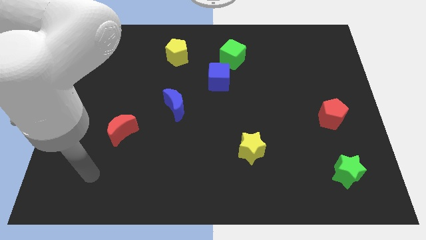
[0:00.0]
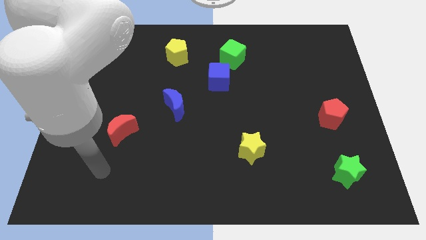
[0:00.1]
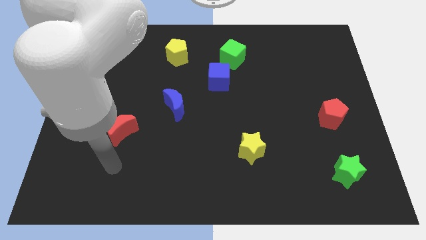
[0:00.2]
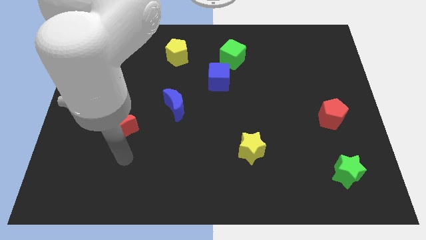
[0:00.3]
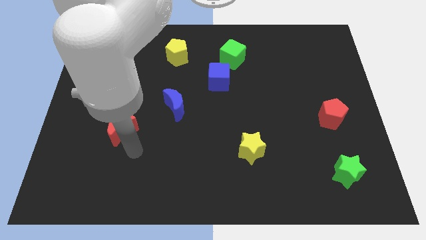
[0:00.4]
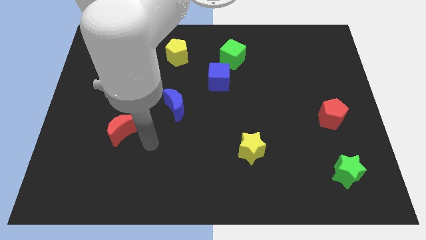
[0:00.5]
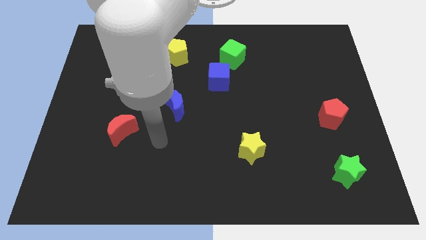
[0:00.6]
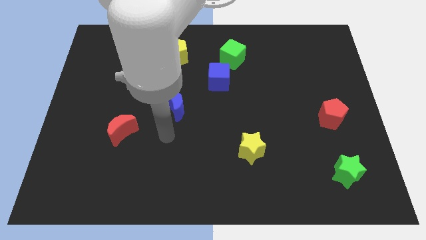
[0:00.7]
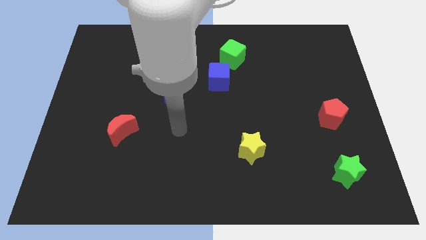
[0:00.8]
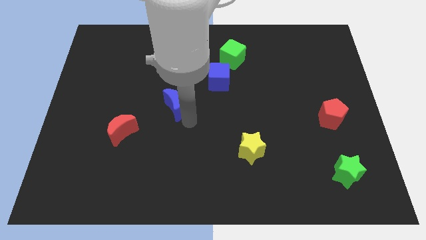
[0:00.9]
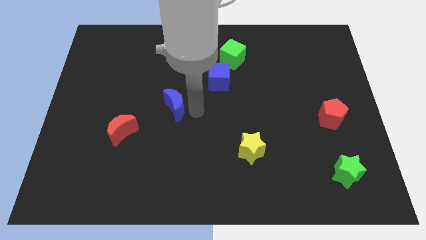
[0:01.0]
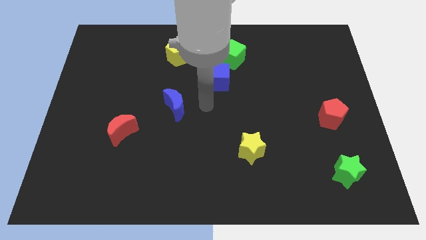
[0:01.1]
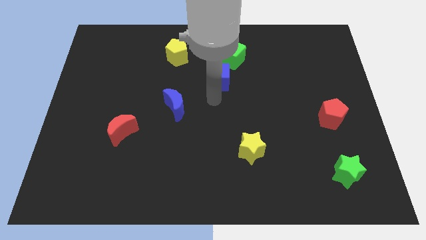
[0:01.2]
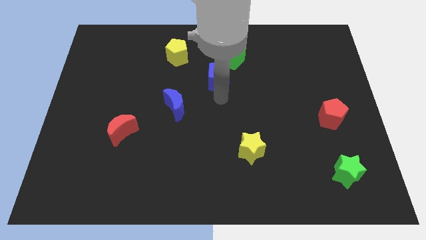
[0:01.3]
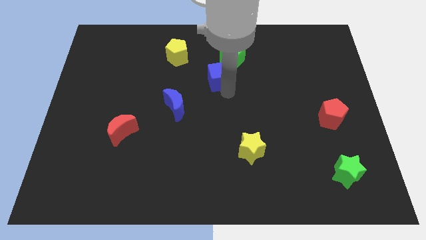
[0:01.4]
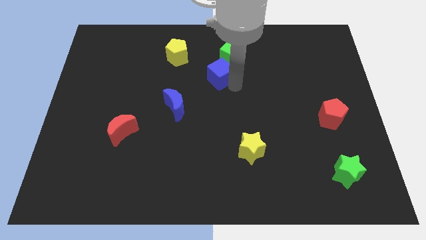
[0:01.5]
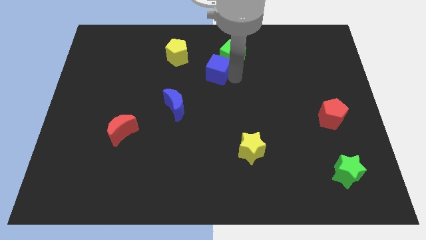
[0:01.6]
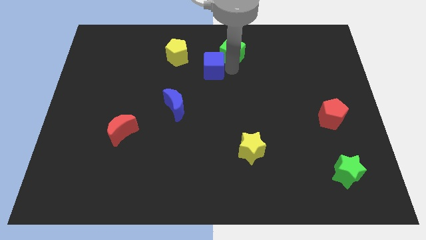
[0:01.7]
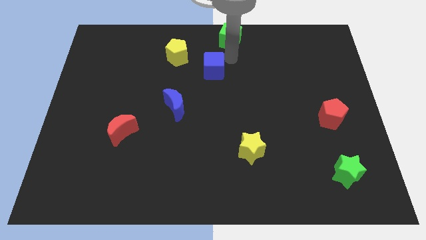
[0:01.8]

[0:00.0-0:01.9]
move the blue cube away from the green cube

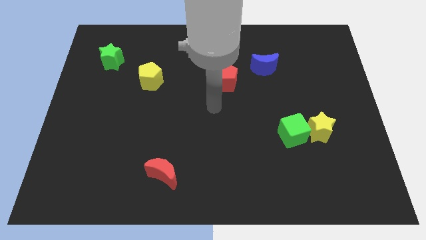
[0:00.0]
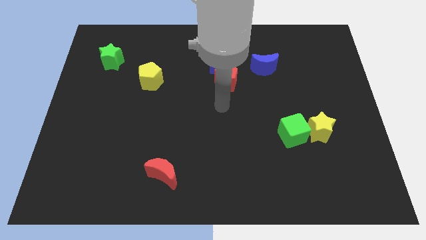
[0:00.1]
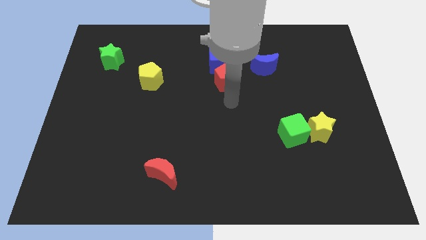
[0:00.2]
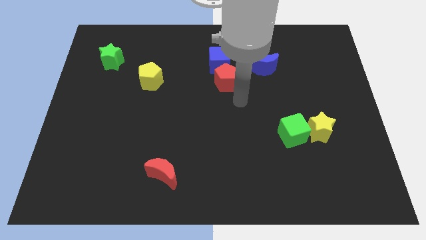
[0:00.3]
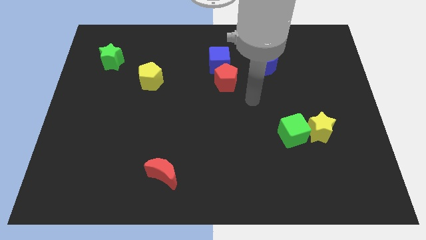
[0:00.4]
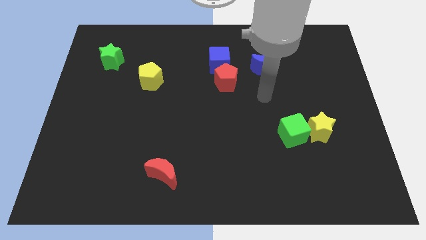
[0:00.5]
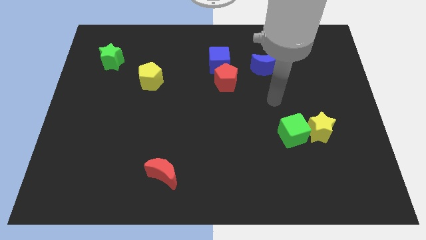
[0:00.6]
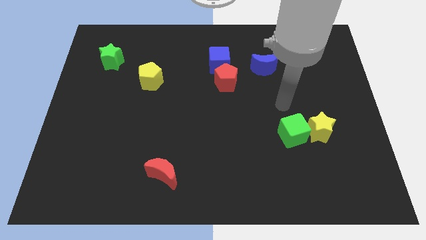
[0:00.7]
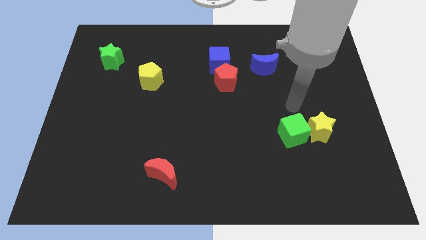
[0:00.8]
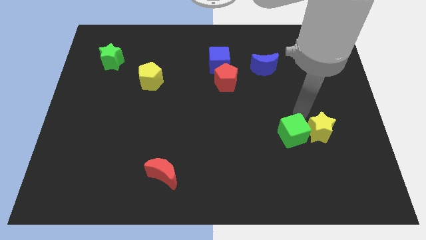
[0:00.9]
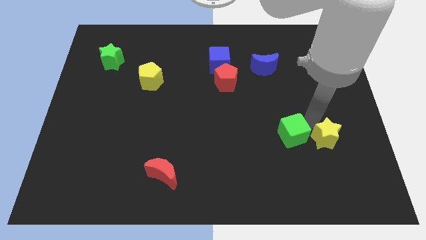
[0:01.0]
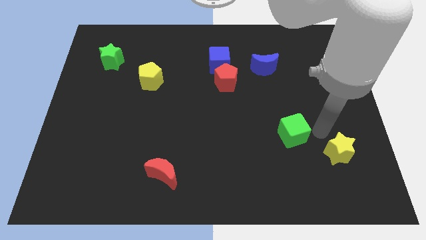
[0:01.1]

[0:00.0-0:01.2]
move the green cube away from the yellow star

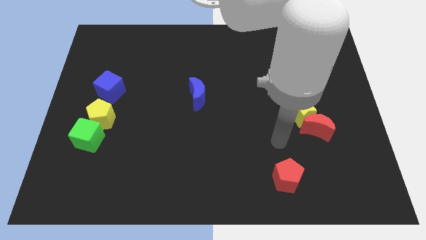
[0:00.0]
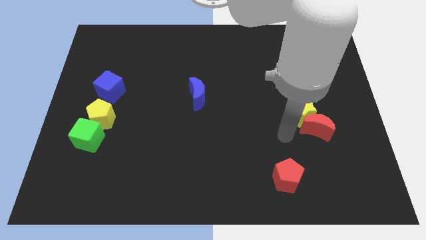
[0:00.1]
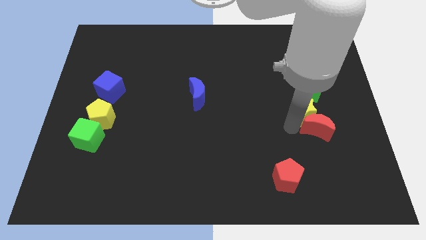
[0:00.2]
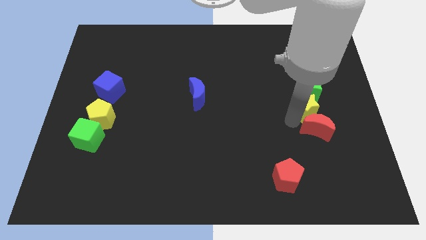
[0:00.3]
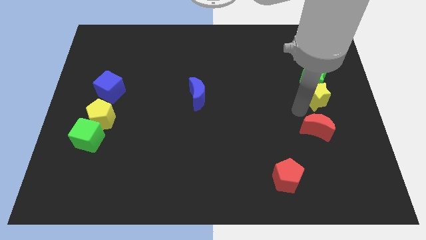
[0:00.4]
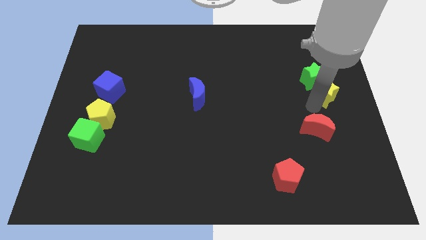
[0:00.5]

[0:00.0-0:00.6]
move the red moon away from the yellow star

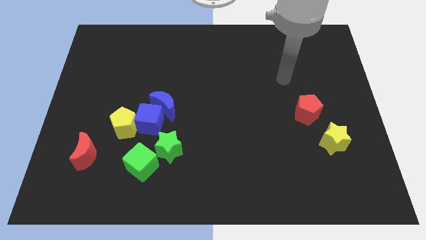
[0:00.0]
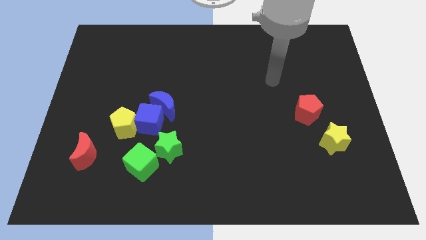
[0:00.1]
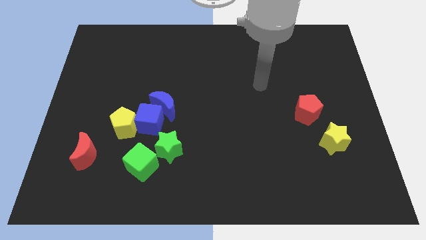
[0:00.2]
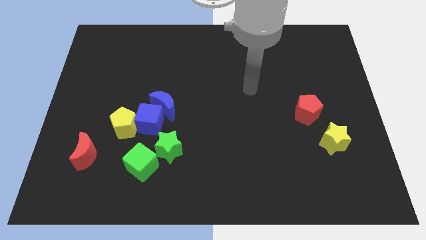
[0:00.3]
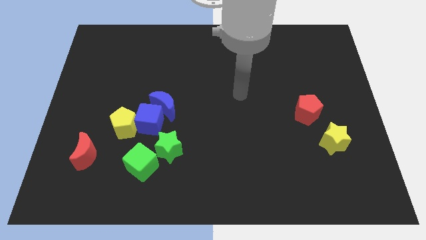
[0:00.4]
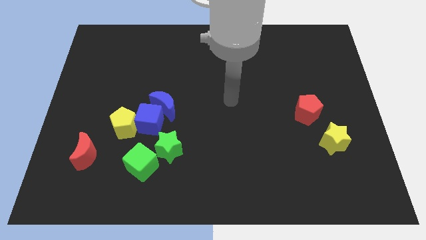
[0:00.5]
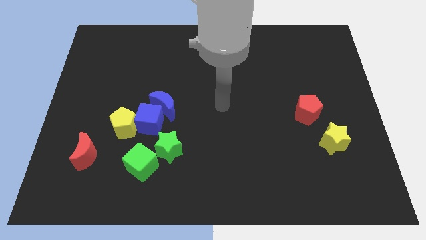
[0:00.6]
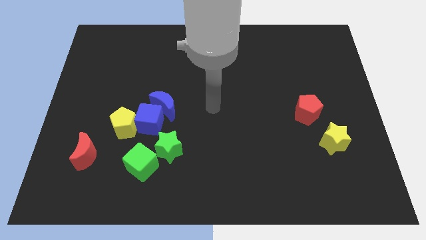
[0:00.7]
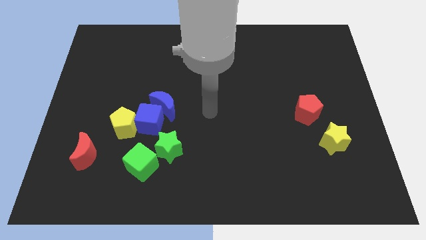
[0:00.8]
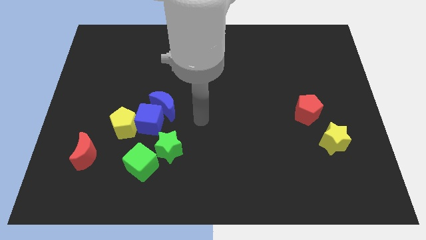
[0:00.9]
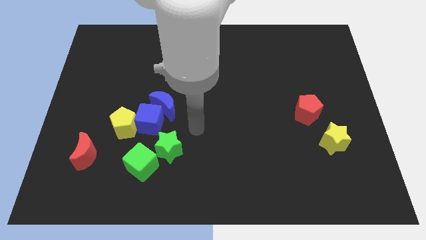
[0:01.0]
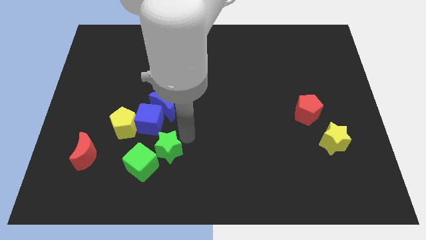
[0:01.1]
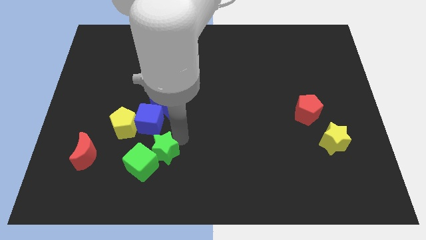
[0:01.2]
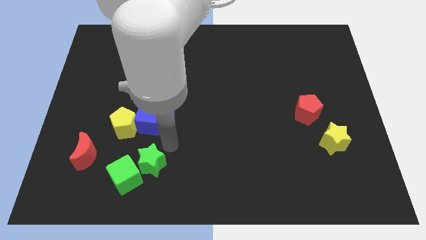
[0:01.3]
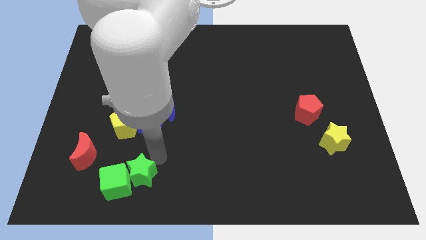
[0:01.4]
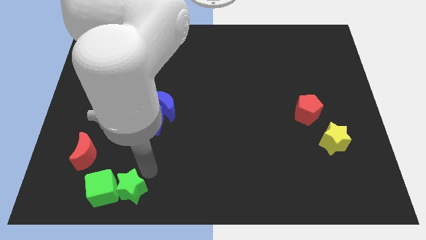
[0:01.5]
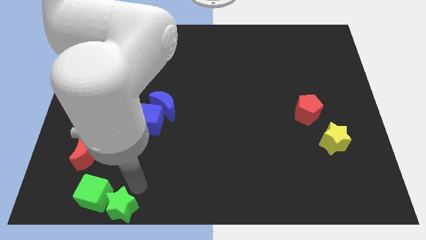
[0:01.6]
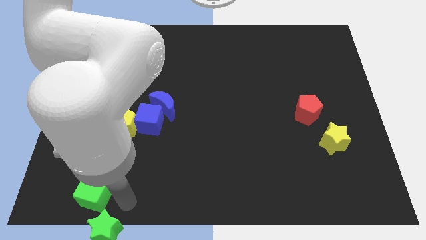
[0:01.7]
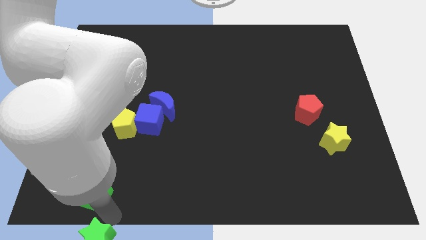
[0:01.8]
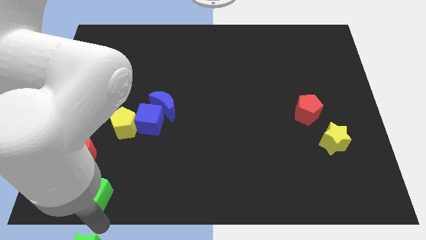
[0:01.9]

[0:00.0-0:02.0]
separate the green cube from the green star

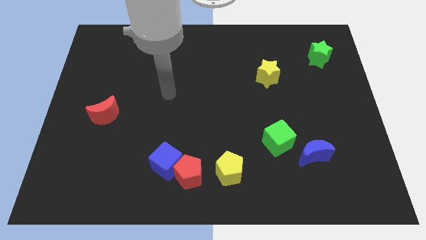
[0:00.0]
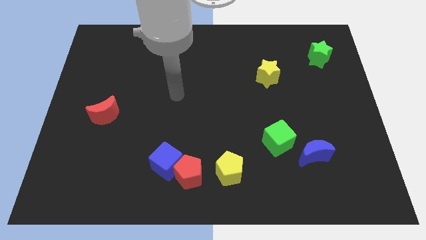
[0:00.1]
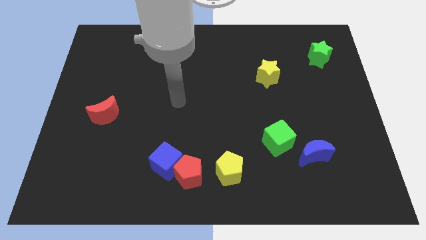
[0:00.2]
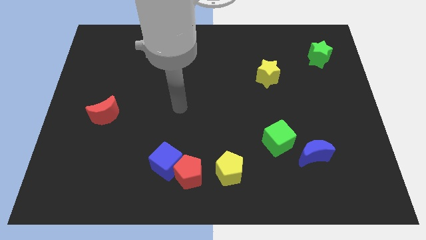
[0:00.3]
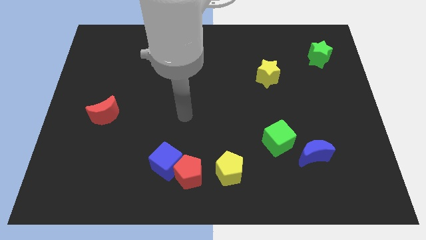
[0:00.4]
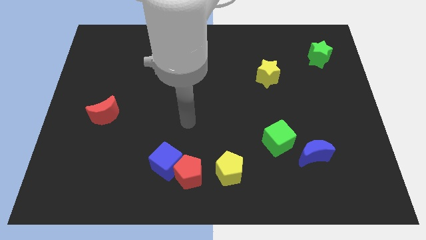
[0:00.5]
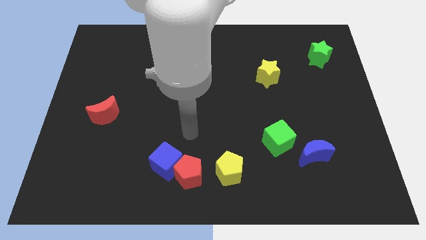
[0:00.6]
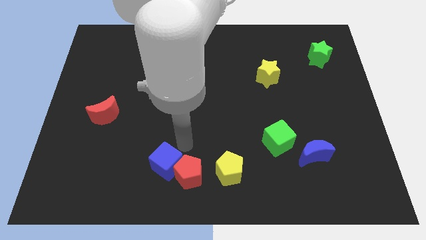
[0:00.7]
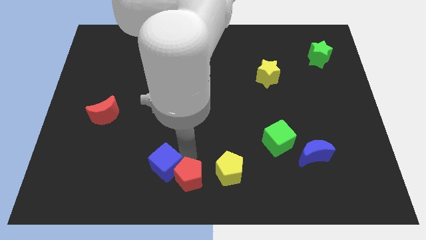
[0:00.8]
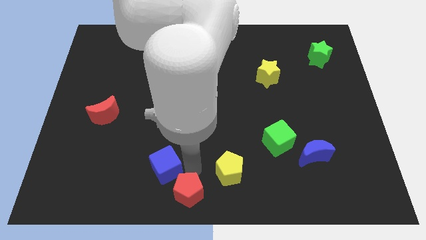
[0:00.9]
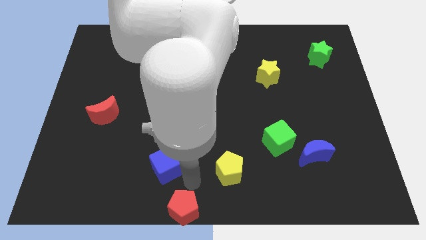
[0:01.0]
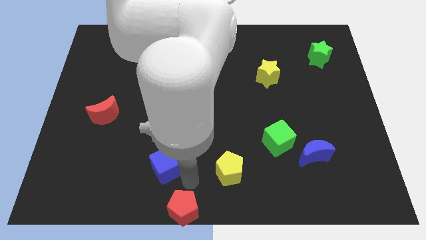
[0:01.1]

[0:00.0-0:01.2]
separate the blue cube from the red pentagon

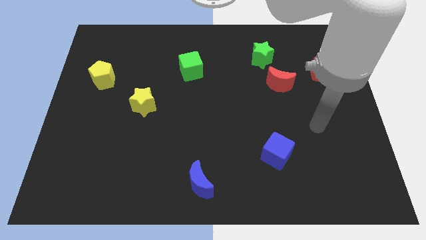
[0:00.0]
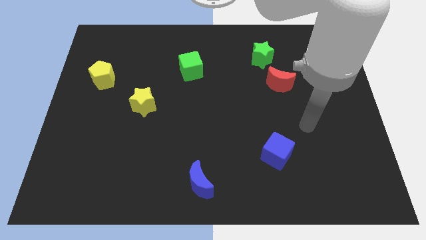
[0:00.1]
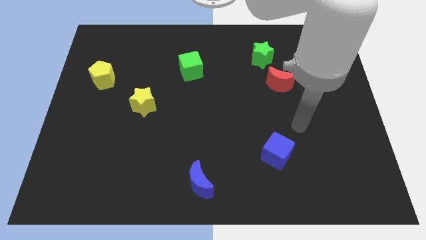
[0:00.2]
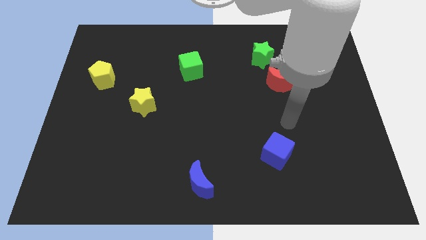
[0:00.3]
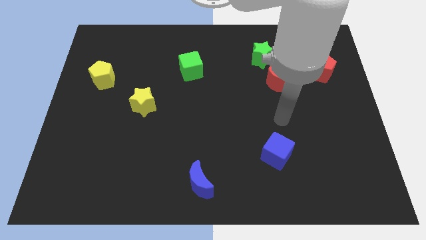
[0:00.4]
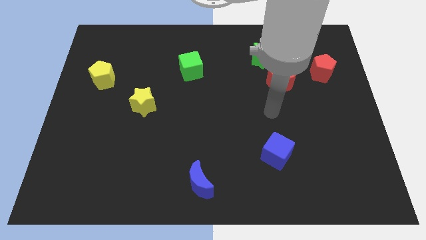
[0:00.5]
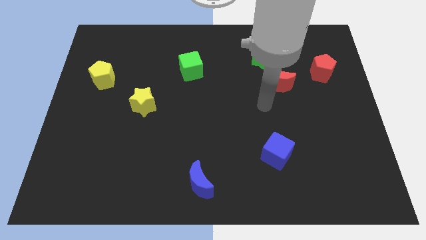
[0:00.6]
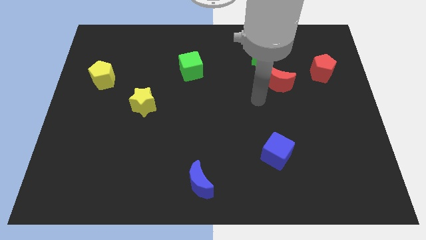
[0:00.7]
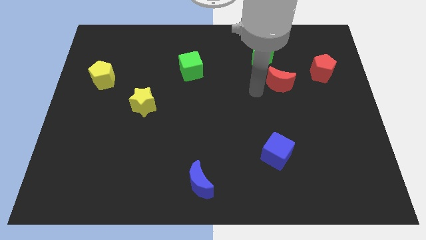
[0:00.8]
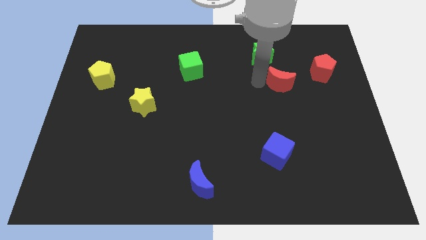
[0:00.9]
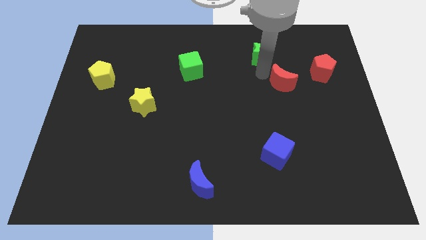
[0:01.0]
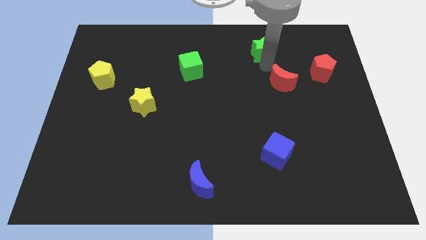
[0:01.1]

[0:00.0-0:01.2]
pull the red moon apart from the green star

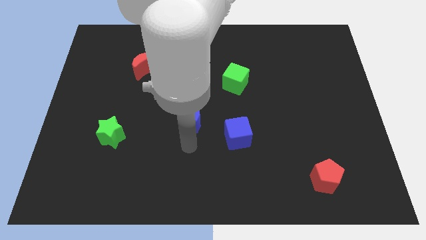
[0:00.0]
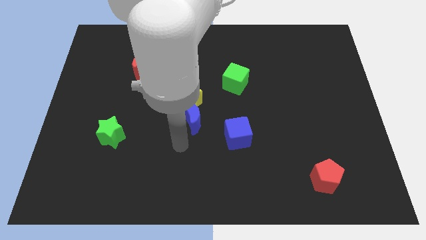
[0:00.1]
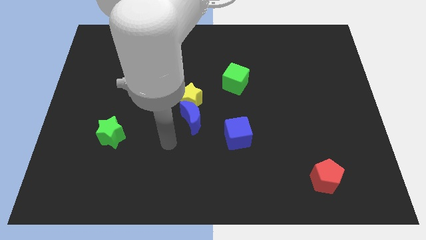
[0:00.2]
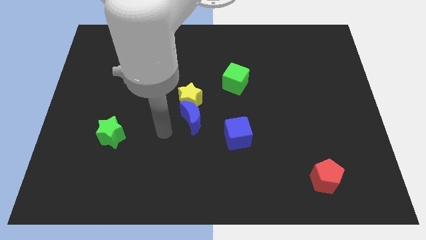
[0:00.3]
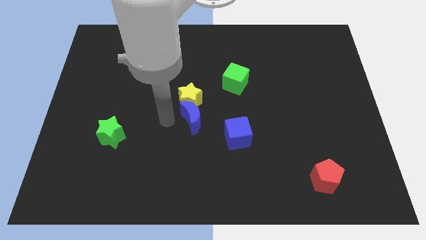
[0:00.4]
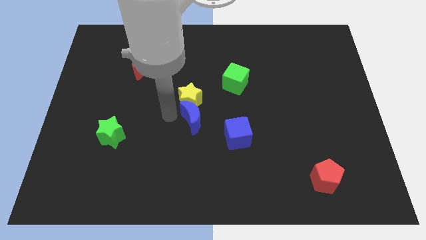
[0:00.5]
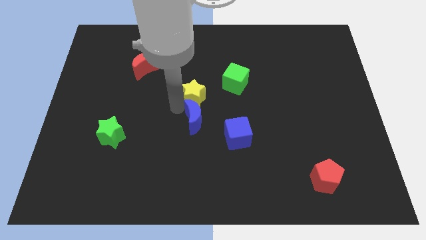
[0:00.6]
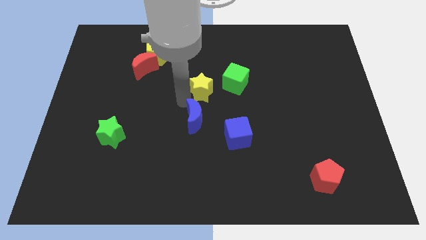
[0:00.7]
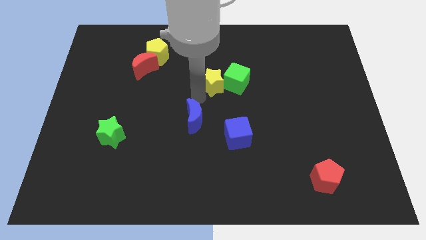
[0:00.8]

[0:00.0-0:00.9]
separate the blue moon from the yellow star

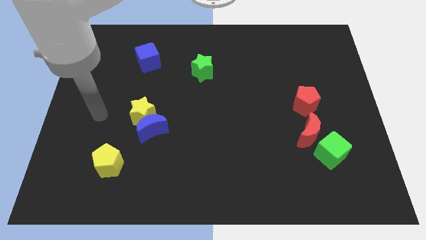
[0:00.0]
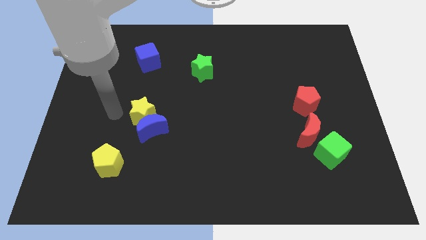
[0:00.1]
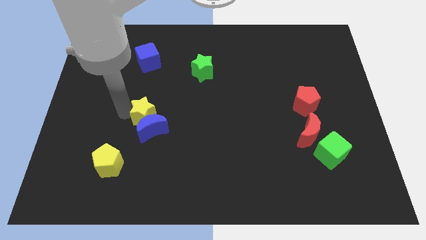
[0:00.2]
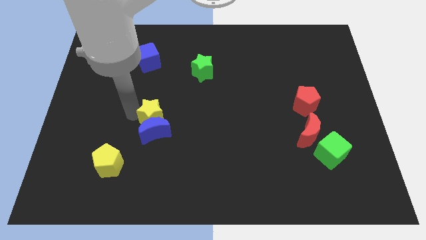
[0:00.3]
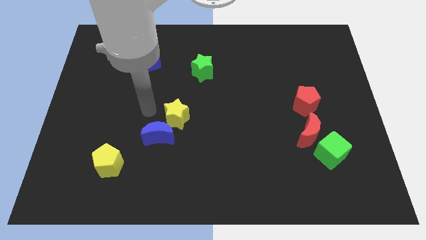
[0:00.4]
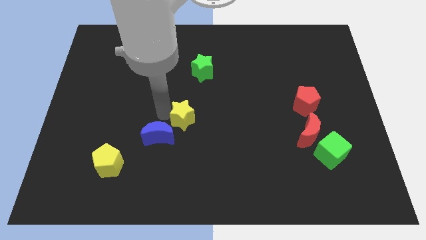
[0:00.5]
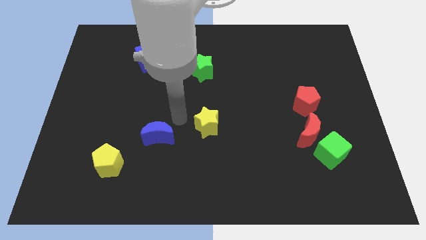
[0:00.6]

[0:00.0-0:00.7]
pull the blue moon apart from the yellow star
